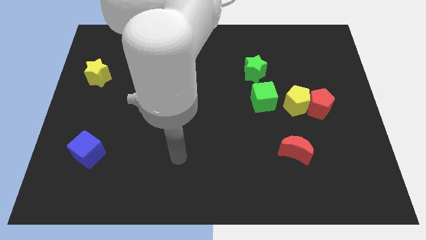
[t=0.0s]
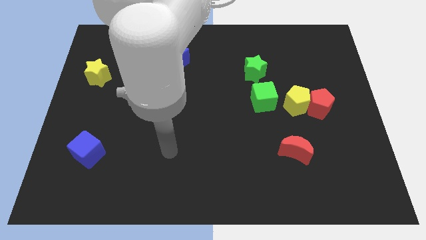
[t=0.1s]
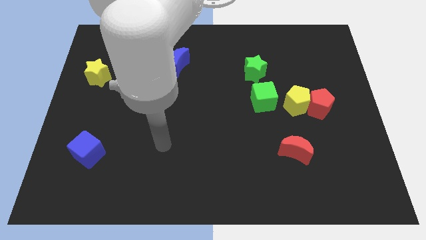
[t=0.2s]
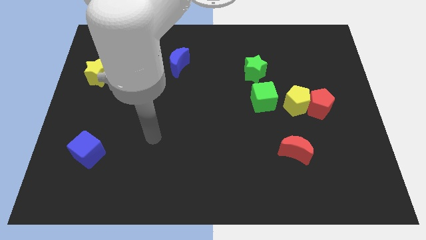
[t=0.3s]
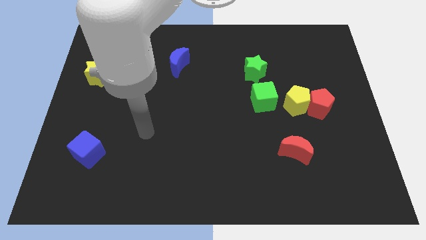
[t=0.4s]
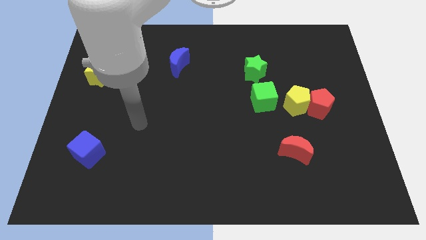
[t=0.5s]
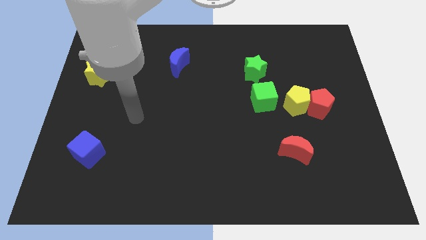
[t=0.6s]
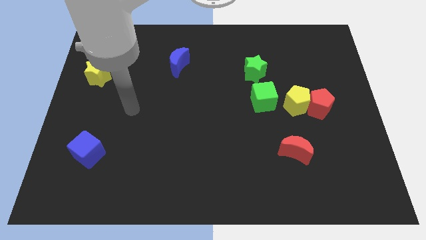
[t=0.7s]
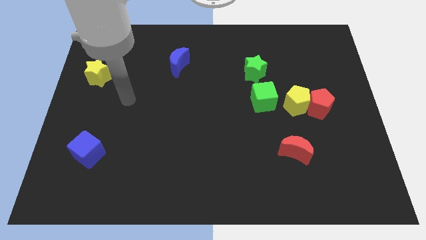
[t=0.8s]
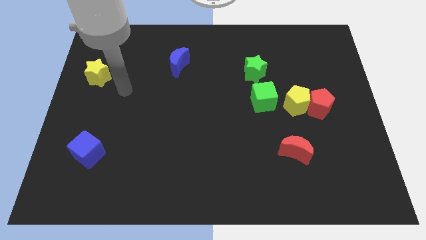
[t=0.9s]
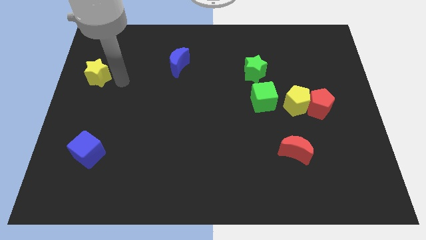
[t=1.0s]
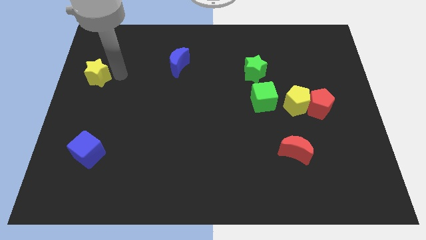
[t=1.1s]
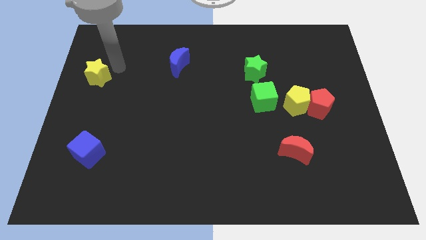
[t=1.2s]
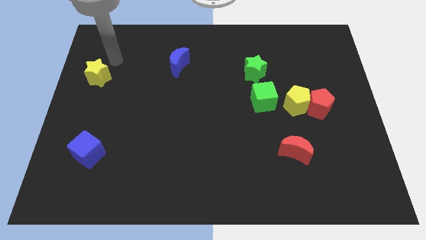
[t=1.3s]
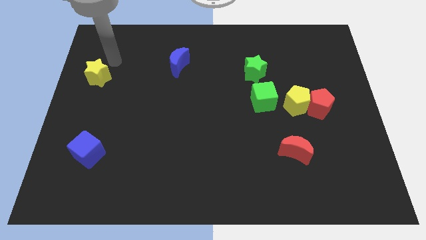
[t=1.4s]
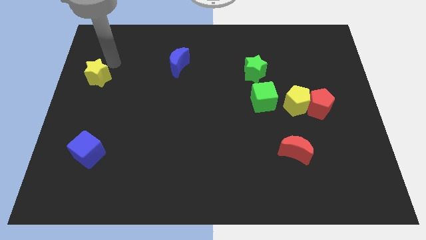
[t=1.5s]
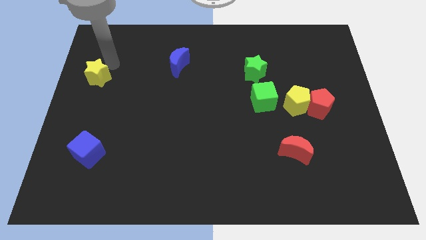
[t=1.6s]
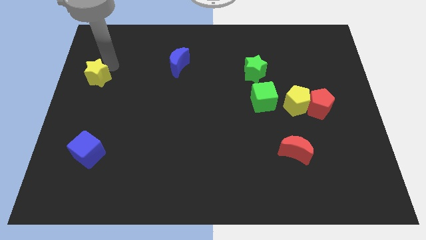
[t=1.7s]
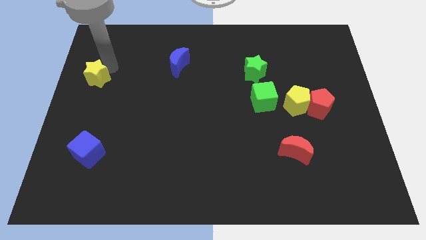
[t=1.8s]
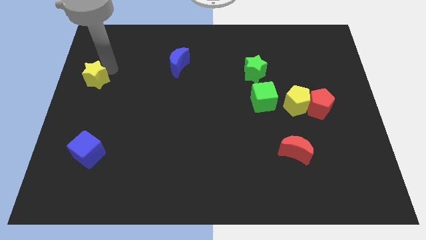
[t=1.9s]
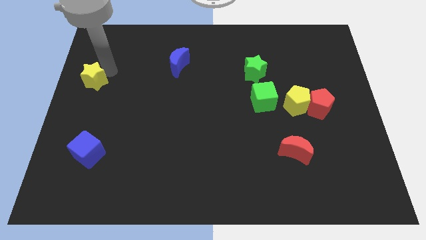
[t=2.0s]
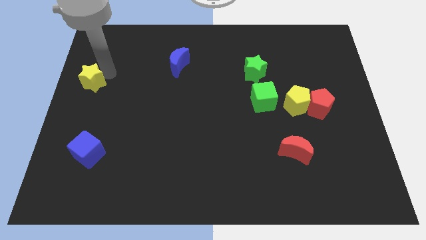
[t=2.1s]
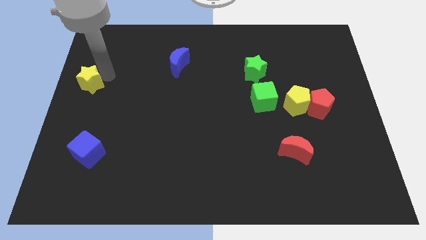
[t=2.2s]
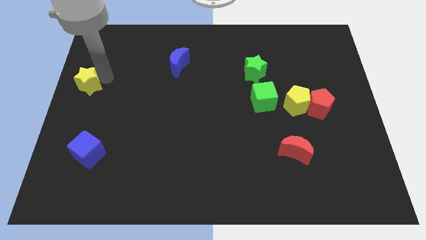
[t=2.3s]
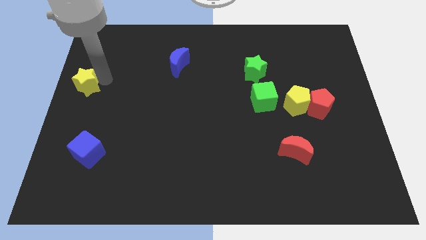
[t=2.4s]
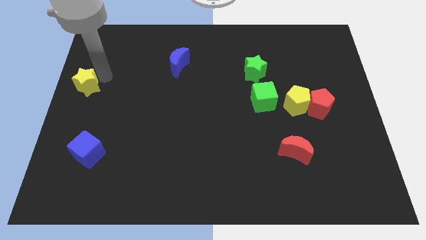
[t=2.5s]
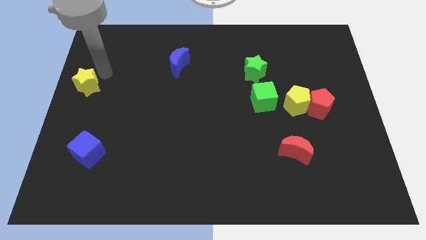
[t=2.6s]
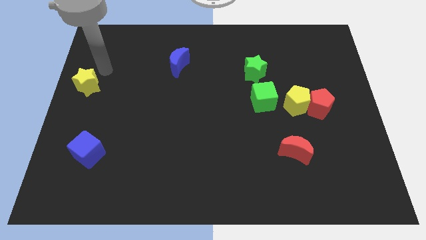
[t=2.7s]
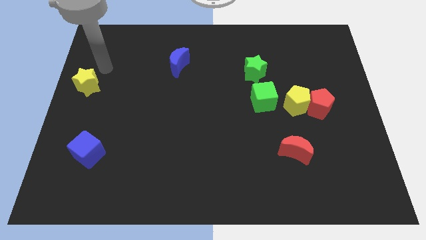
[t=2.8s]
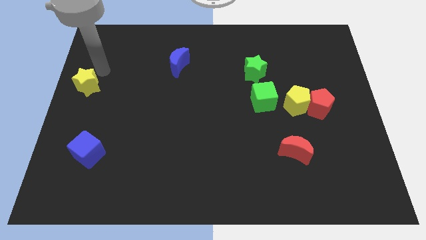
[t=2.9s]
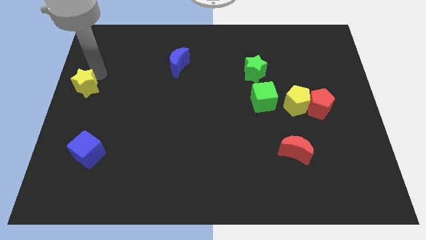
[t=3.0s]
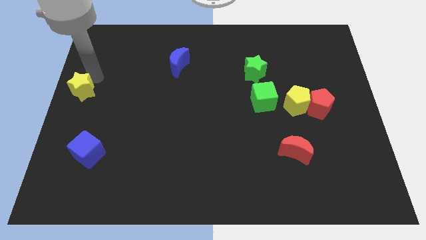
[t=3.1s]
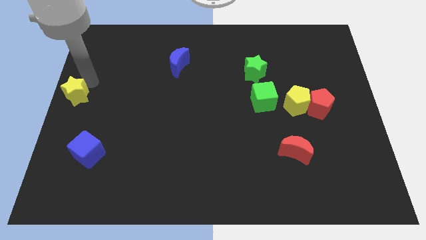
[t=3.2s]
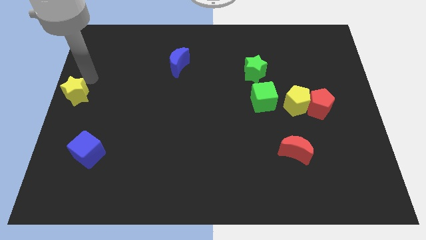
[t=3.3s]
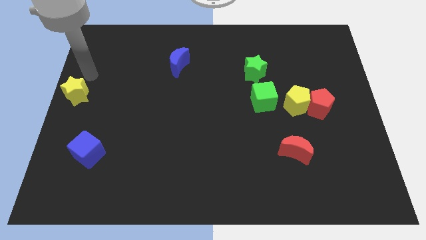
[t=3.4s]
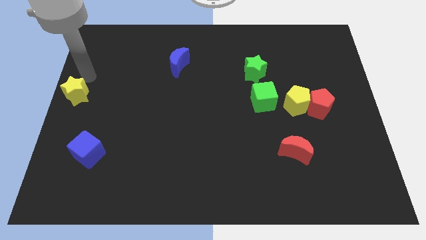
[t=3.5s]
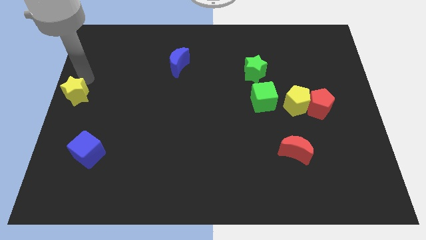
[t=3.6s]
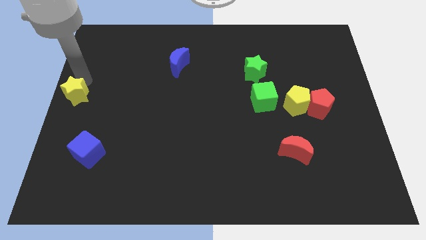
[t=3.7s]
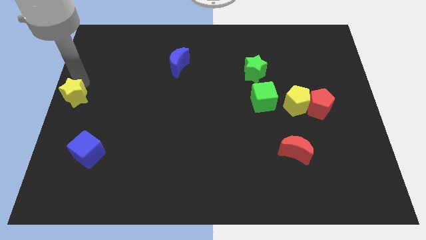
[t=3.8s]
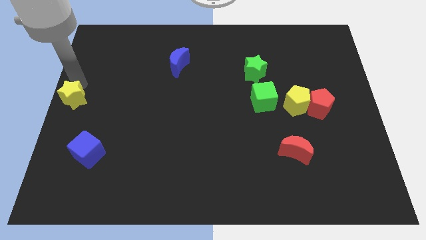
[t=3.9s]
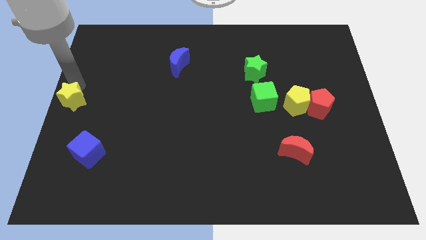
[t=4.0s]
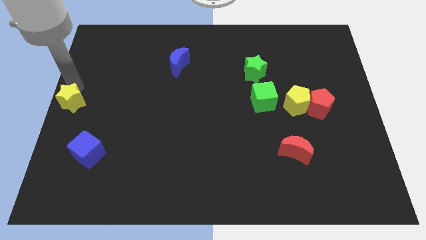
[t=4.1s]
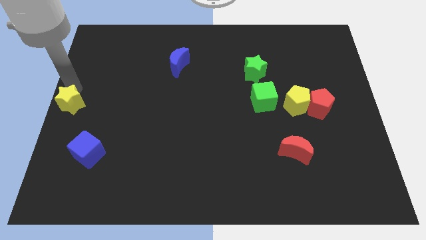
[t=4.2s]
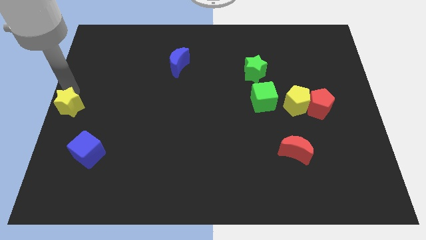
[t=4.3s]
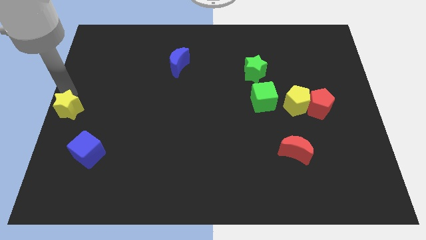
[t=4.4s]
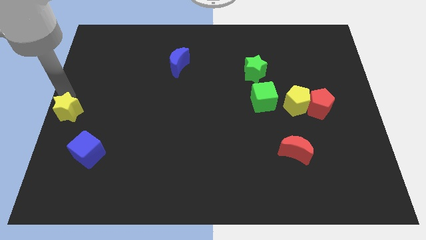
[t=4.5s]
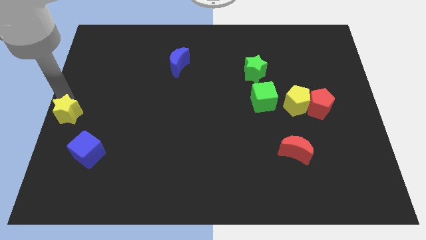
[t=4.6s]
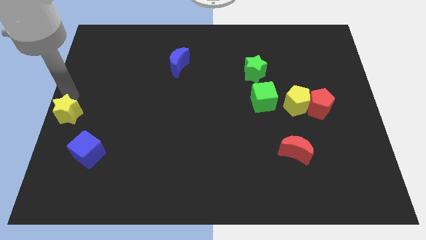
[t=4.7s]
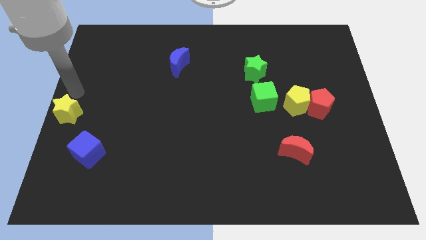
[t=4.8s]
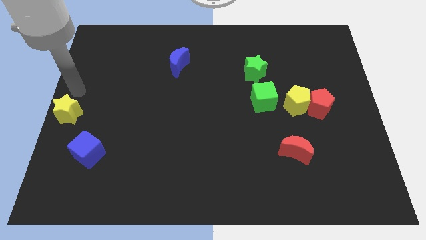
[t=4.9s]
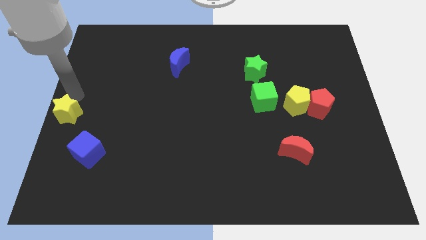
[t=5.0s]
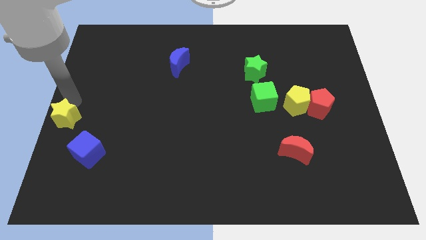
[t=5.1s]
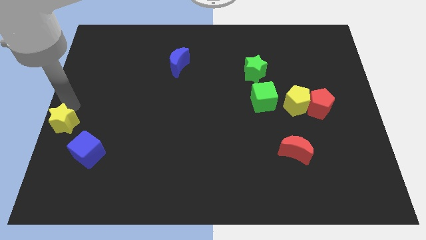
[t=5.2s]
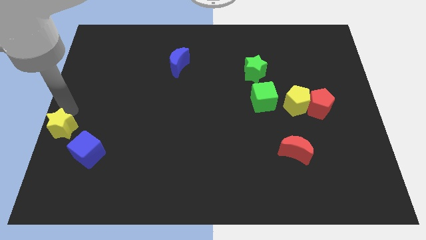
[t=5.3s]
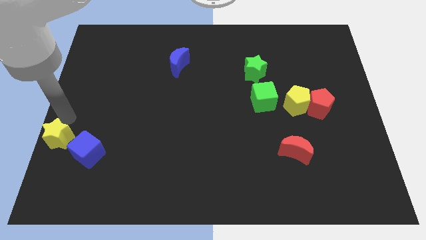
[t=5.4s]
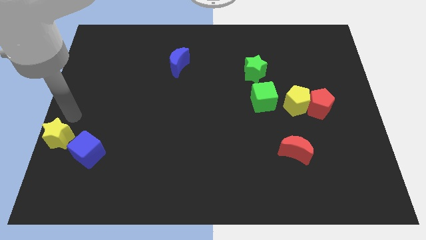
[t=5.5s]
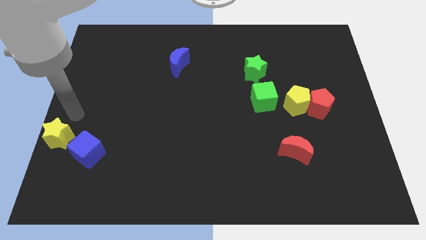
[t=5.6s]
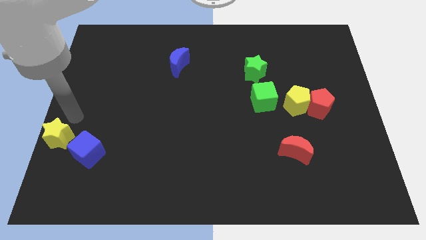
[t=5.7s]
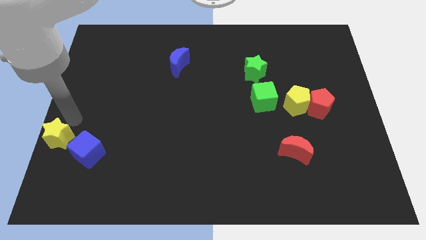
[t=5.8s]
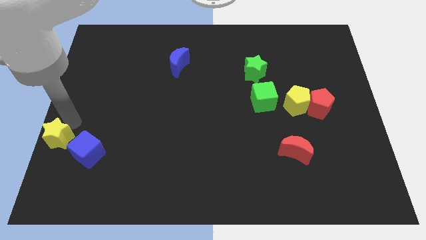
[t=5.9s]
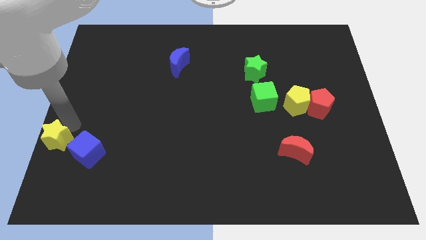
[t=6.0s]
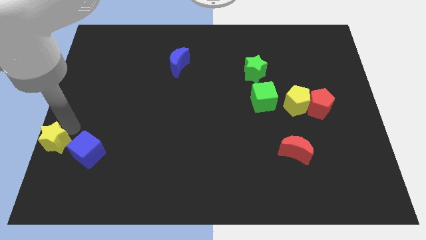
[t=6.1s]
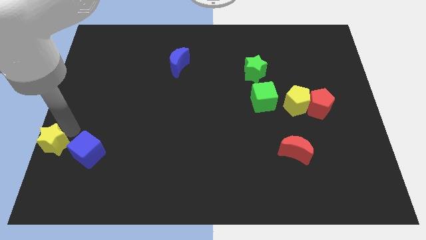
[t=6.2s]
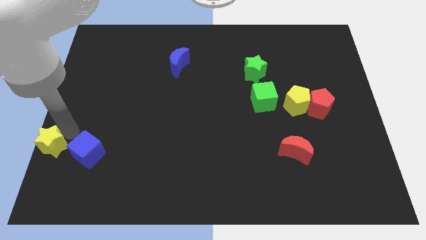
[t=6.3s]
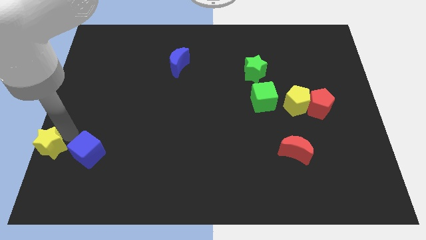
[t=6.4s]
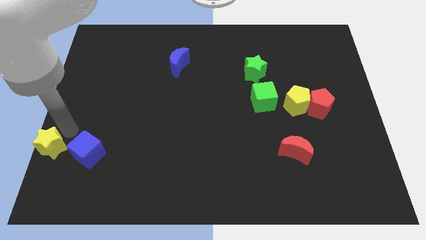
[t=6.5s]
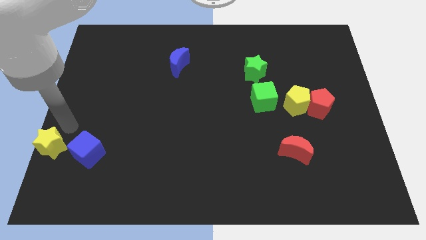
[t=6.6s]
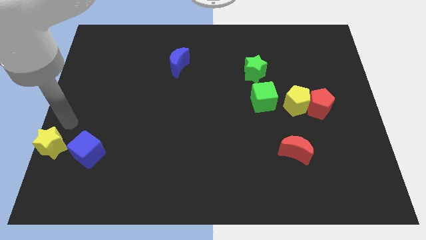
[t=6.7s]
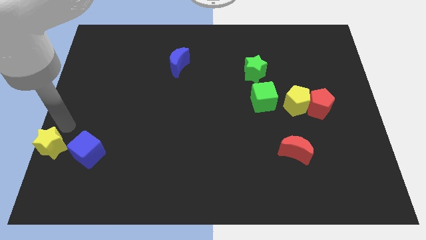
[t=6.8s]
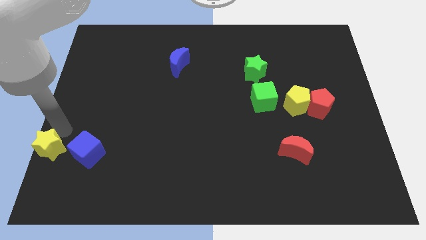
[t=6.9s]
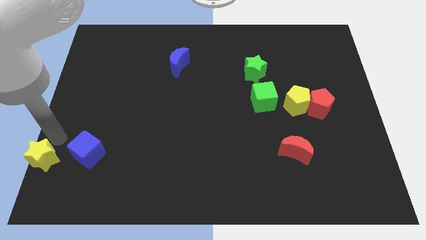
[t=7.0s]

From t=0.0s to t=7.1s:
push the yellow star to the bottom left corner
